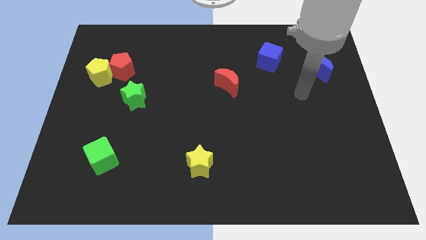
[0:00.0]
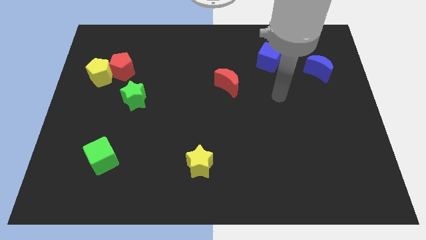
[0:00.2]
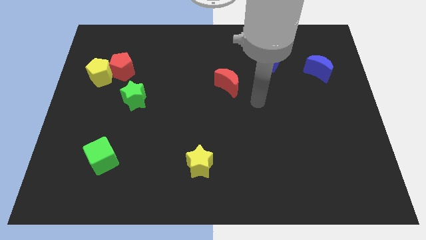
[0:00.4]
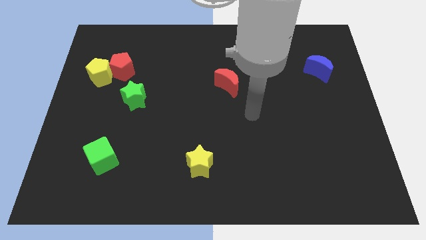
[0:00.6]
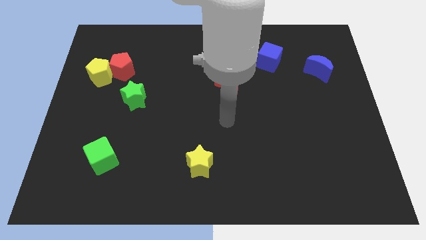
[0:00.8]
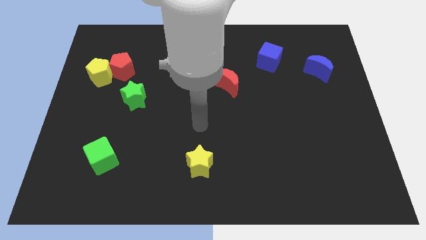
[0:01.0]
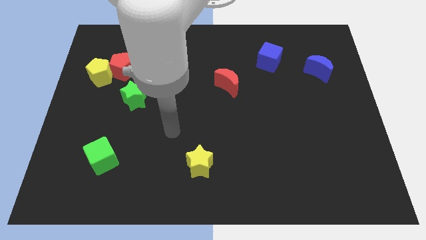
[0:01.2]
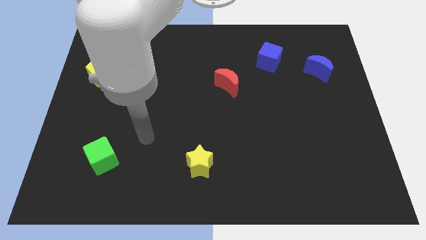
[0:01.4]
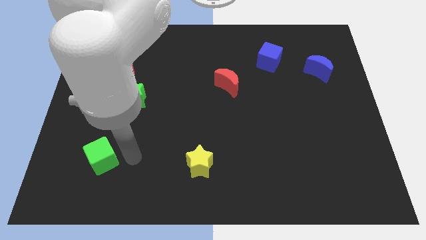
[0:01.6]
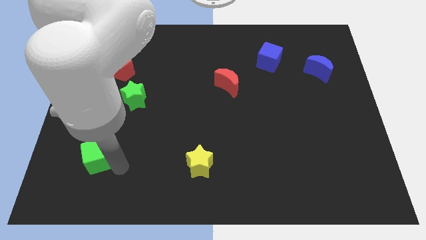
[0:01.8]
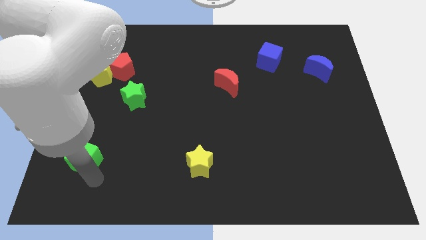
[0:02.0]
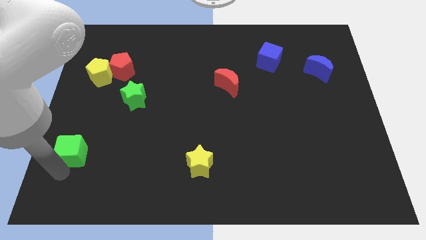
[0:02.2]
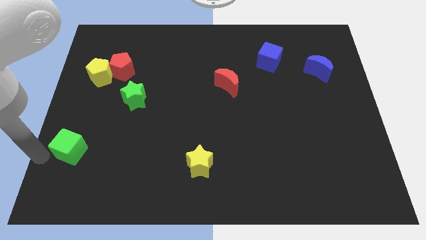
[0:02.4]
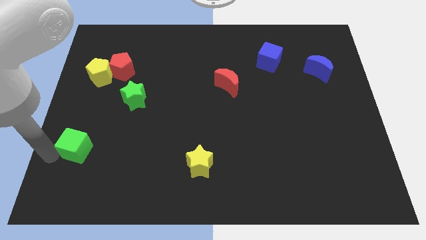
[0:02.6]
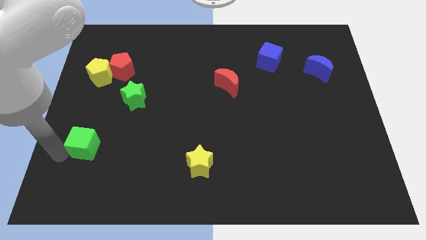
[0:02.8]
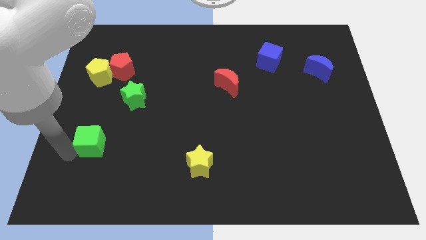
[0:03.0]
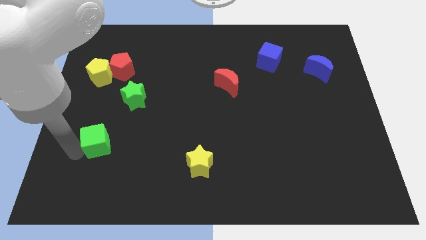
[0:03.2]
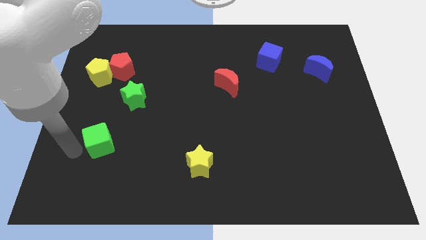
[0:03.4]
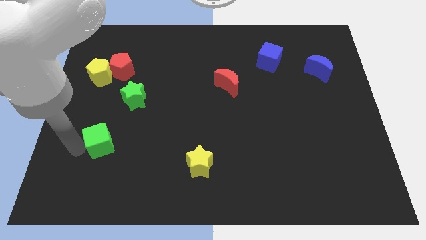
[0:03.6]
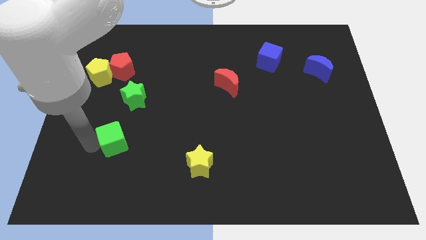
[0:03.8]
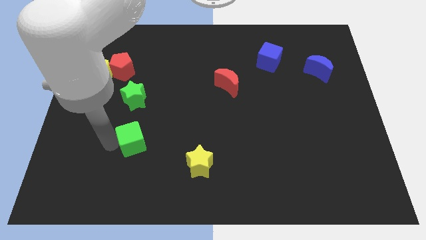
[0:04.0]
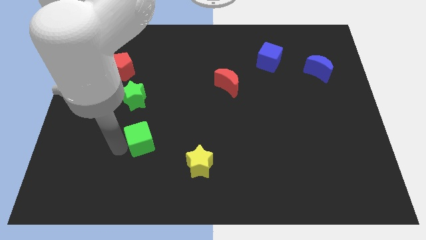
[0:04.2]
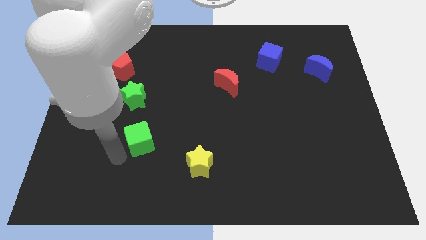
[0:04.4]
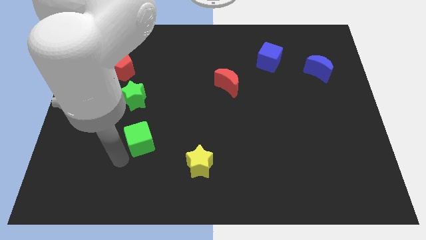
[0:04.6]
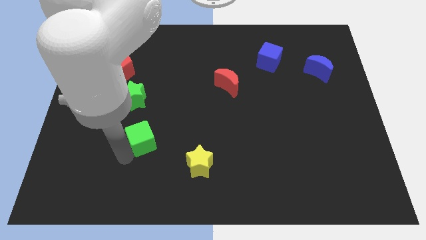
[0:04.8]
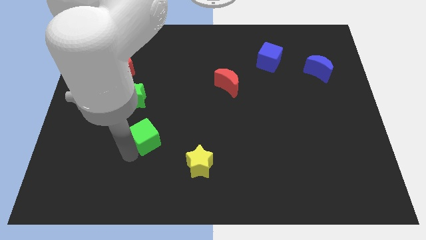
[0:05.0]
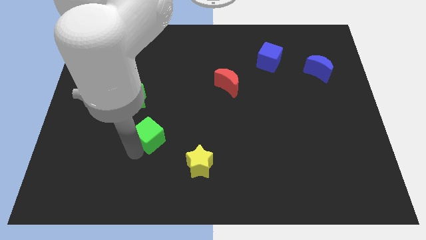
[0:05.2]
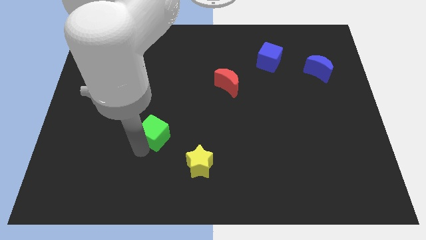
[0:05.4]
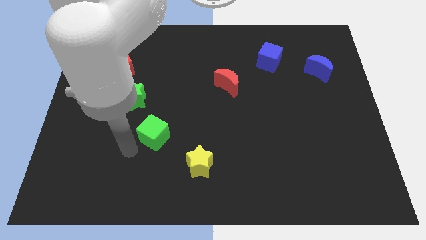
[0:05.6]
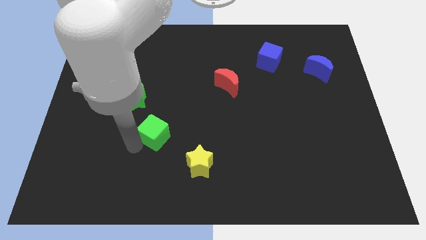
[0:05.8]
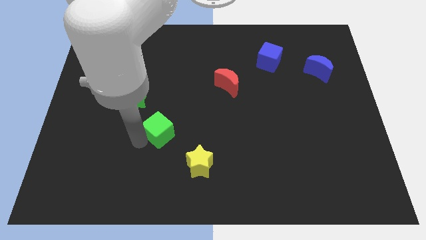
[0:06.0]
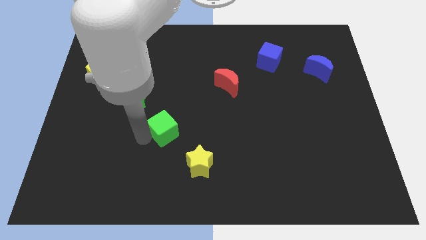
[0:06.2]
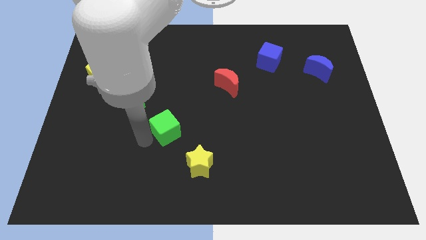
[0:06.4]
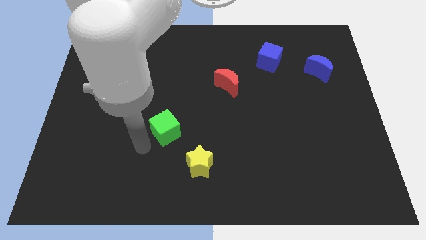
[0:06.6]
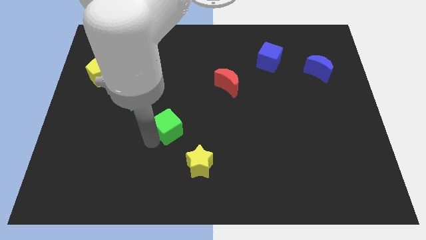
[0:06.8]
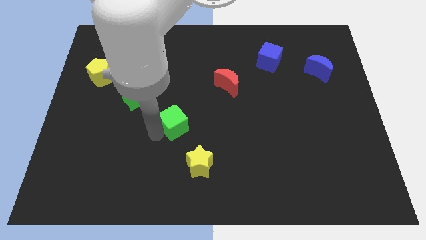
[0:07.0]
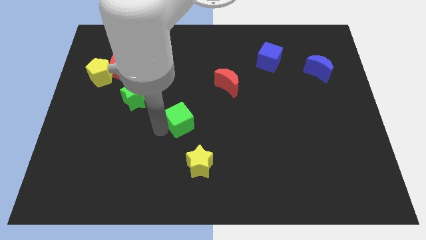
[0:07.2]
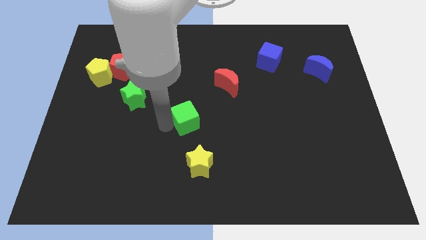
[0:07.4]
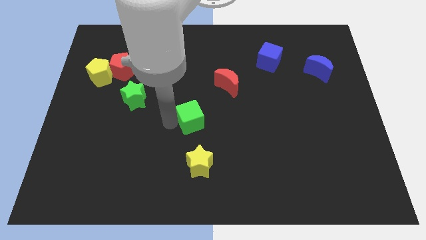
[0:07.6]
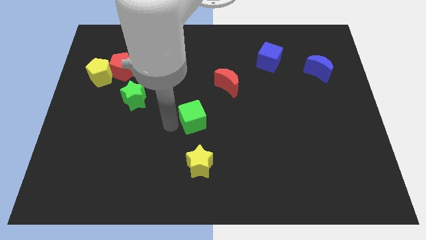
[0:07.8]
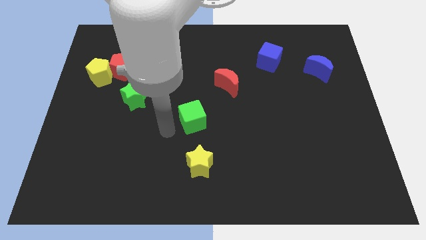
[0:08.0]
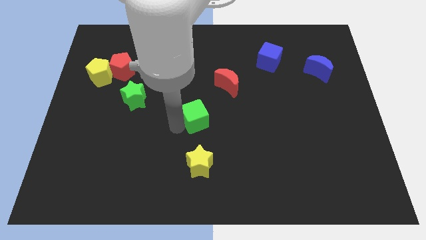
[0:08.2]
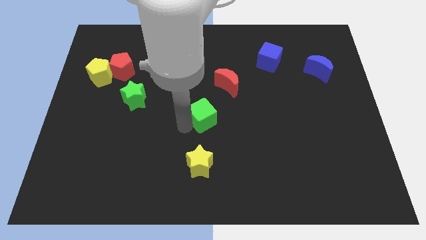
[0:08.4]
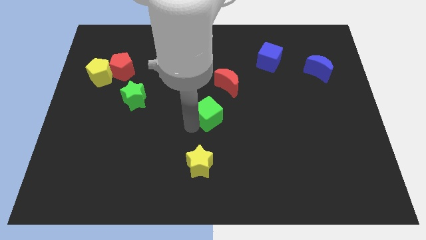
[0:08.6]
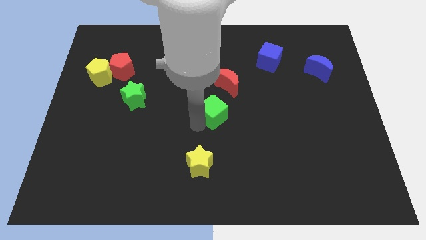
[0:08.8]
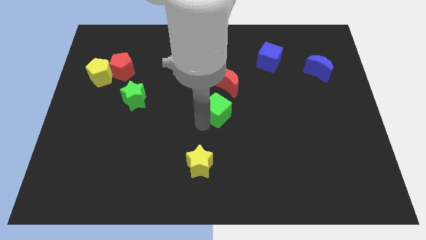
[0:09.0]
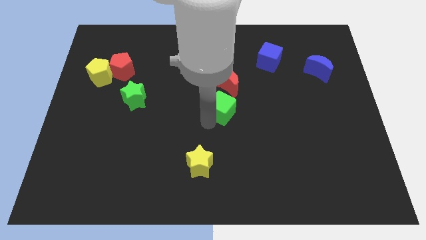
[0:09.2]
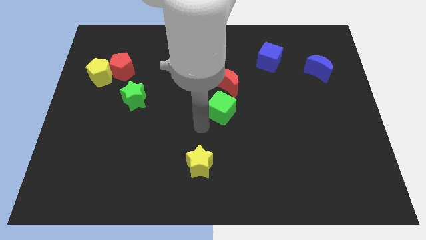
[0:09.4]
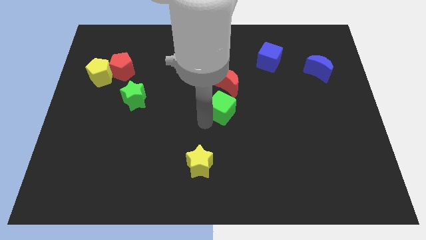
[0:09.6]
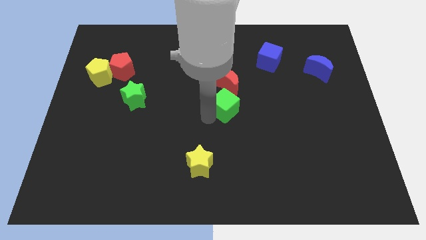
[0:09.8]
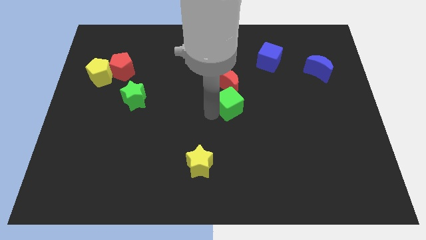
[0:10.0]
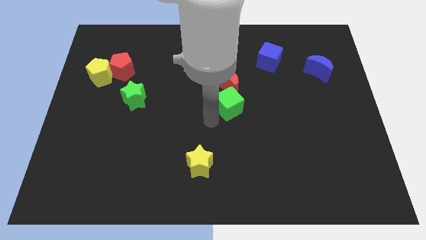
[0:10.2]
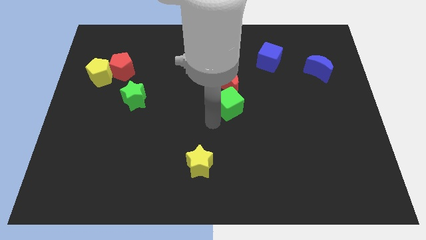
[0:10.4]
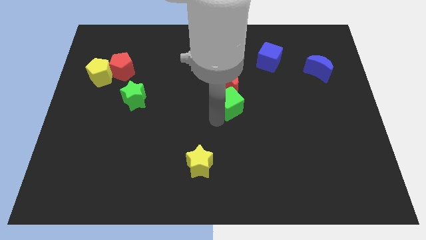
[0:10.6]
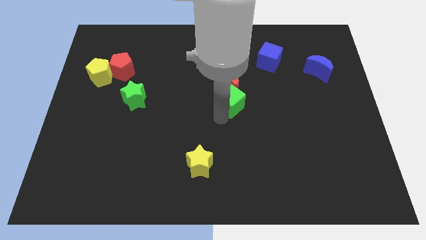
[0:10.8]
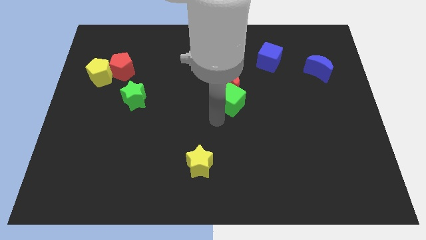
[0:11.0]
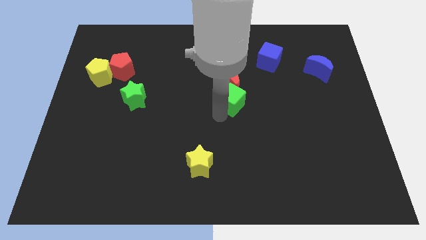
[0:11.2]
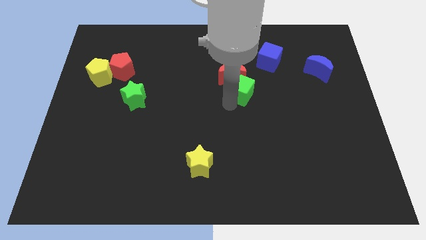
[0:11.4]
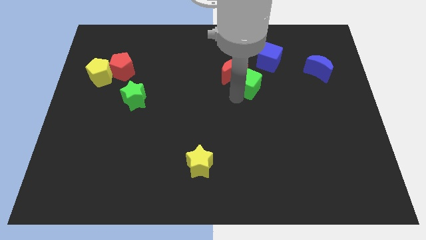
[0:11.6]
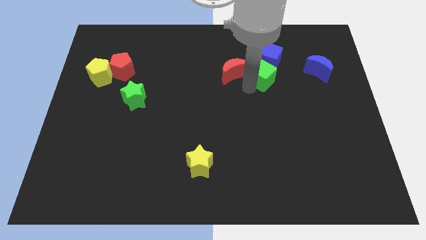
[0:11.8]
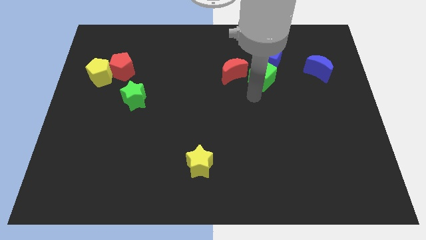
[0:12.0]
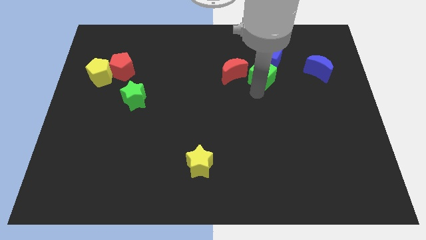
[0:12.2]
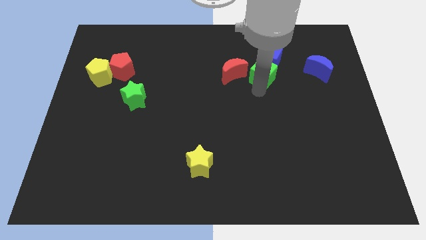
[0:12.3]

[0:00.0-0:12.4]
put the green cube close to the blue cube

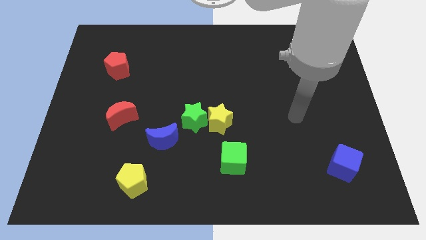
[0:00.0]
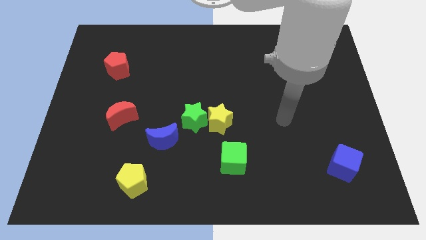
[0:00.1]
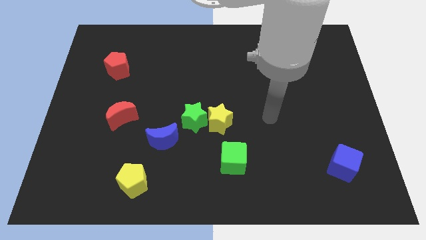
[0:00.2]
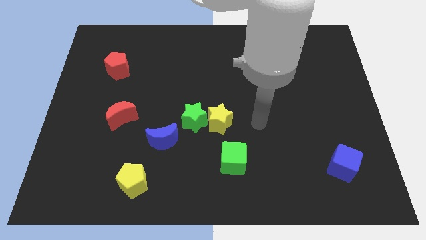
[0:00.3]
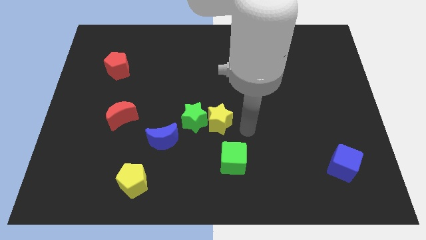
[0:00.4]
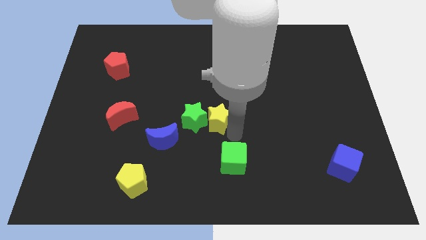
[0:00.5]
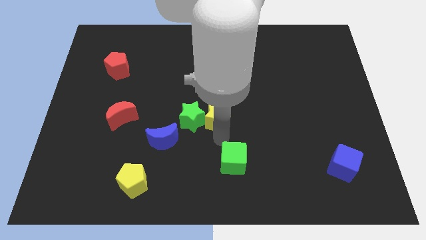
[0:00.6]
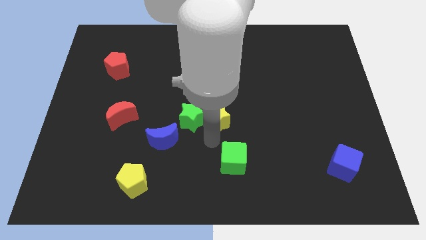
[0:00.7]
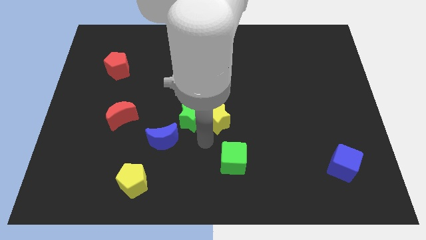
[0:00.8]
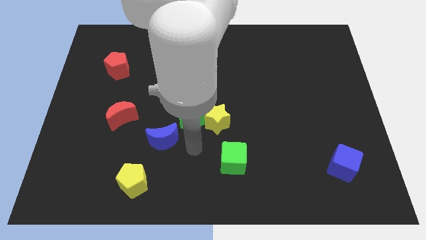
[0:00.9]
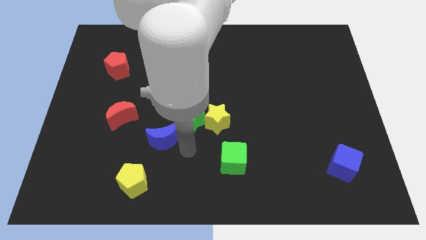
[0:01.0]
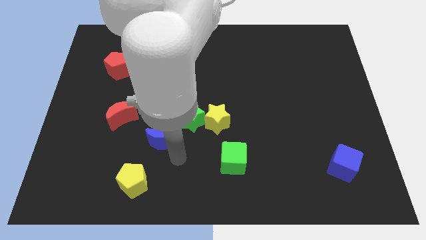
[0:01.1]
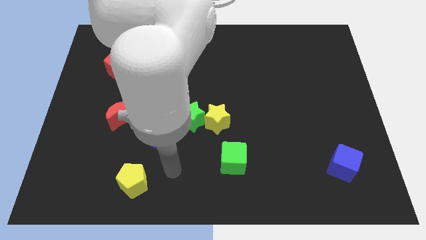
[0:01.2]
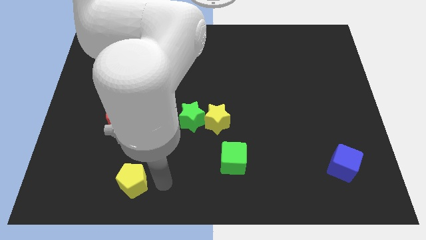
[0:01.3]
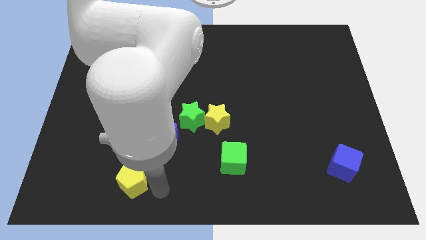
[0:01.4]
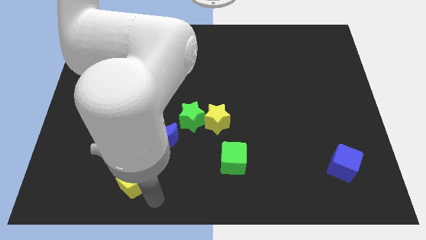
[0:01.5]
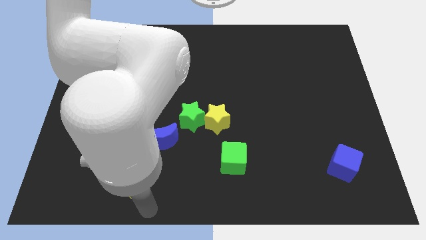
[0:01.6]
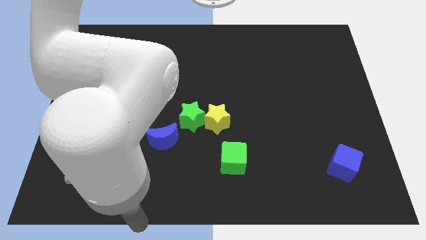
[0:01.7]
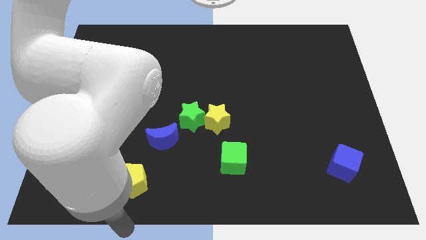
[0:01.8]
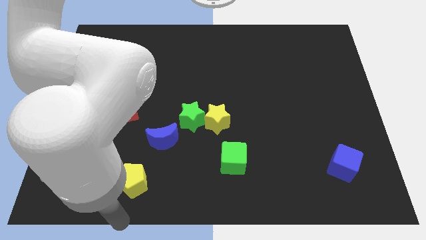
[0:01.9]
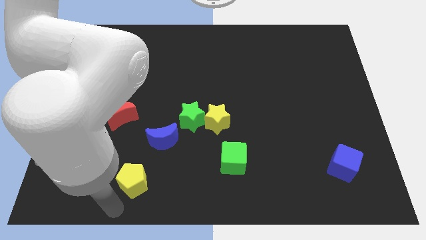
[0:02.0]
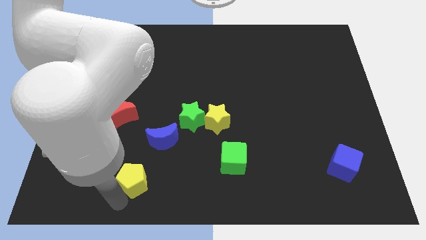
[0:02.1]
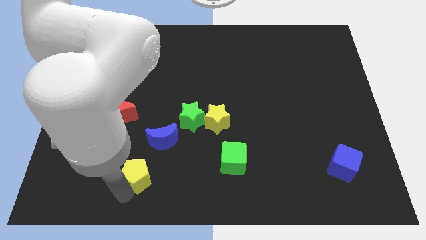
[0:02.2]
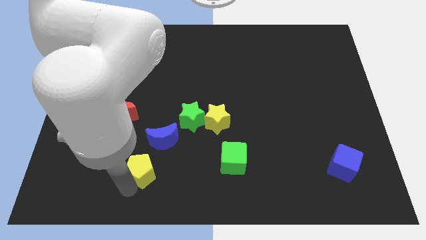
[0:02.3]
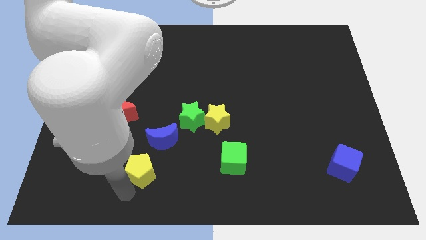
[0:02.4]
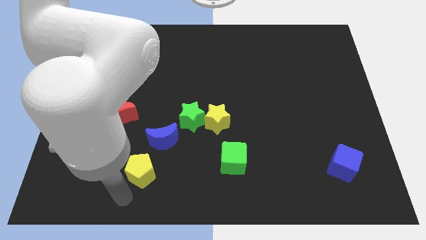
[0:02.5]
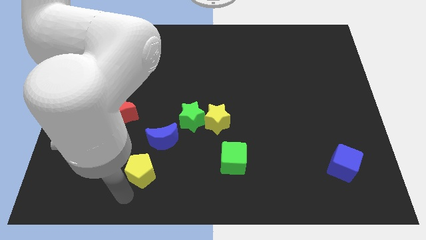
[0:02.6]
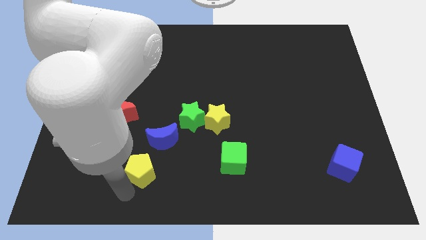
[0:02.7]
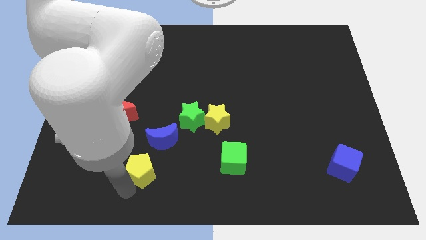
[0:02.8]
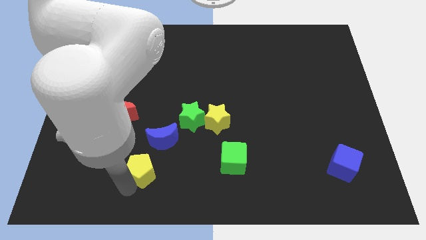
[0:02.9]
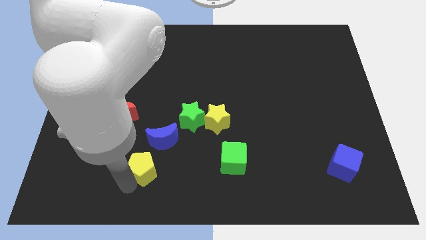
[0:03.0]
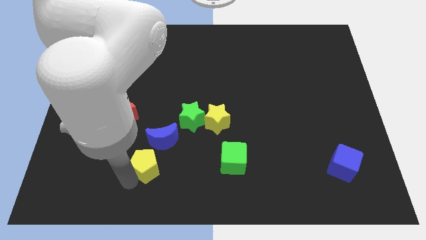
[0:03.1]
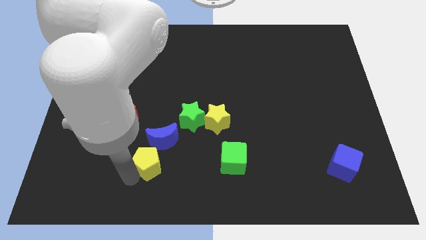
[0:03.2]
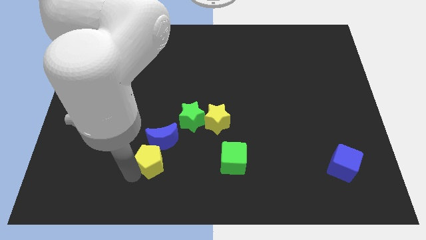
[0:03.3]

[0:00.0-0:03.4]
slide the yellow pentagon next to the blue moon
